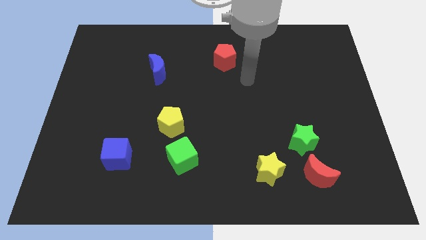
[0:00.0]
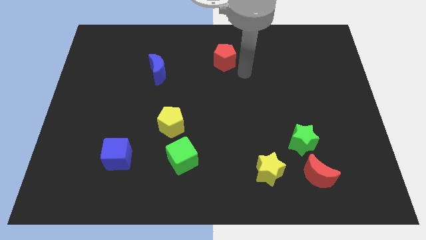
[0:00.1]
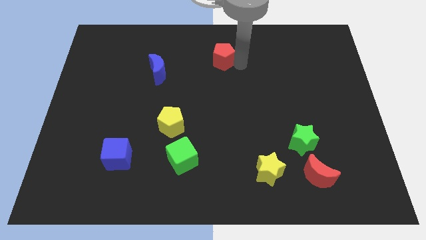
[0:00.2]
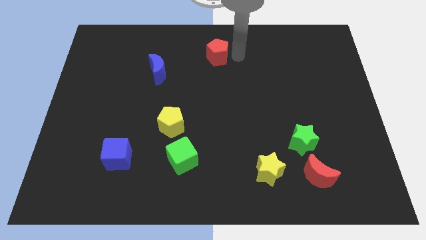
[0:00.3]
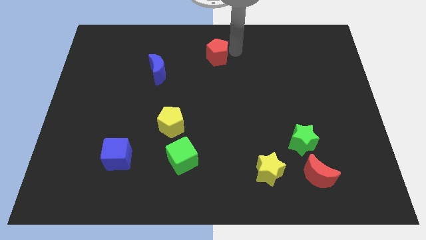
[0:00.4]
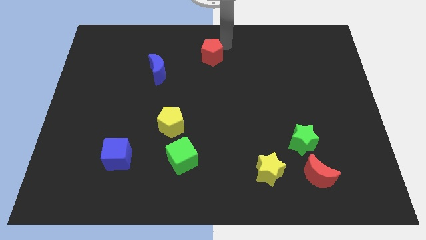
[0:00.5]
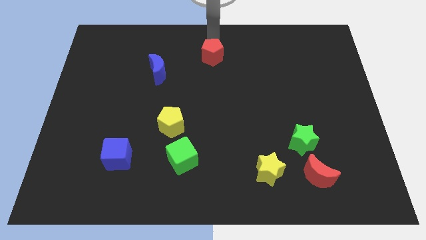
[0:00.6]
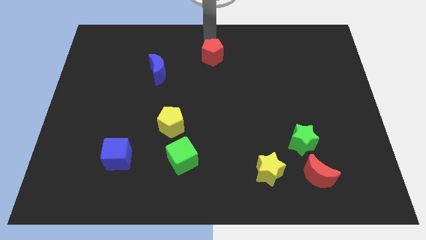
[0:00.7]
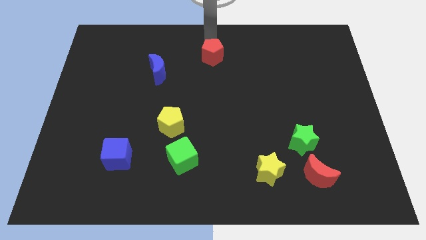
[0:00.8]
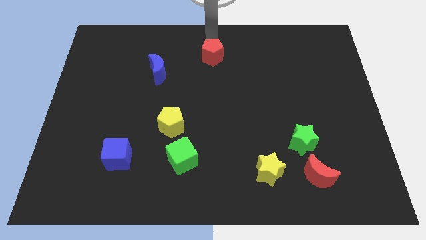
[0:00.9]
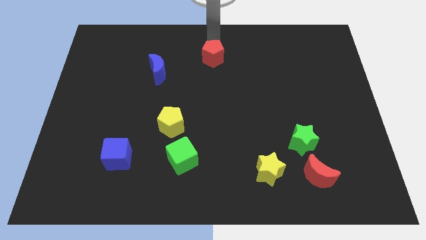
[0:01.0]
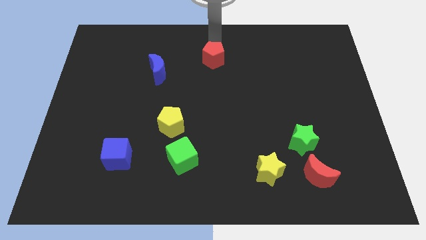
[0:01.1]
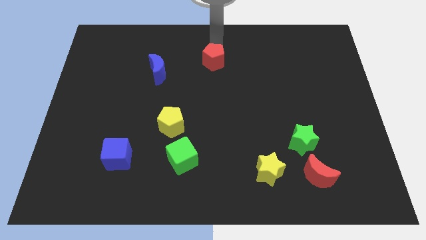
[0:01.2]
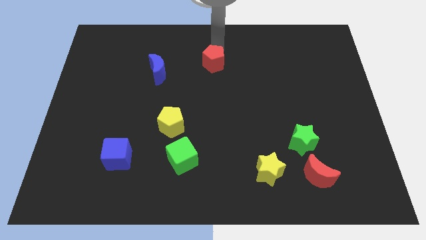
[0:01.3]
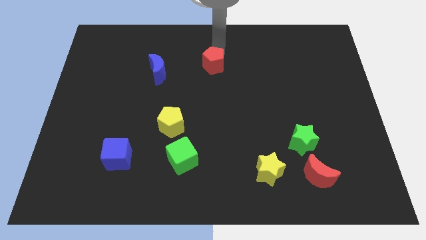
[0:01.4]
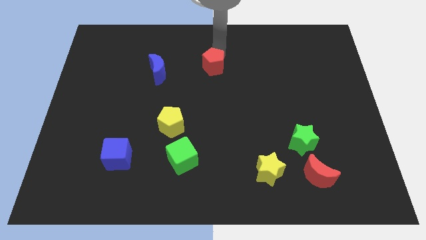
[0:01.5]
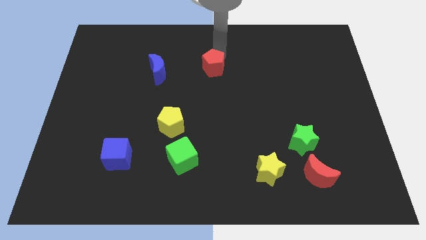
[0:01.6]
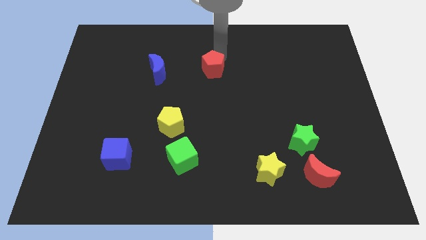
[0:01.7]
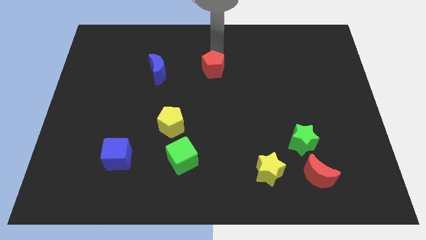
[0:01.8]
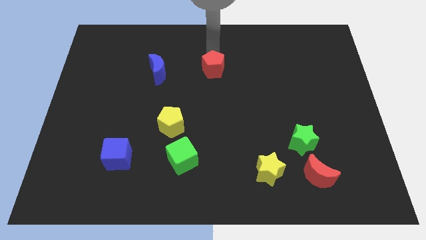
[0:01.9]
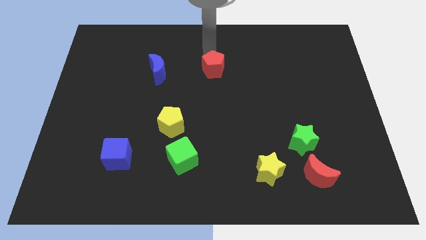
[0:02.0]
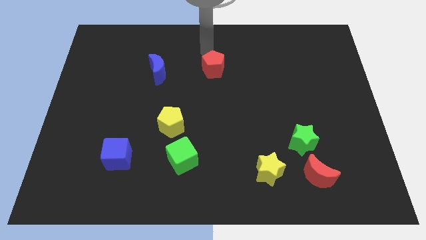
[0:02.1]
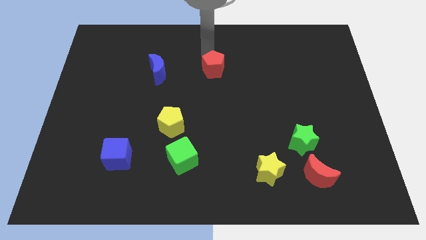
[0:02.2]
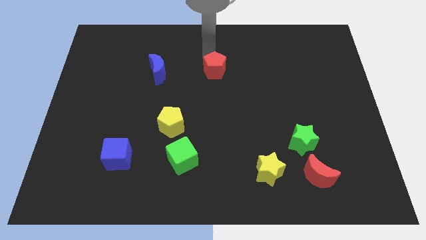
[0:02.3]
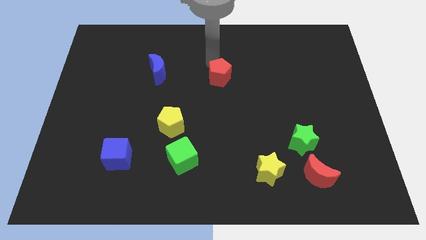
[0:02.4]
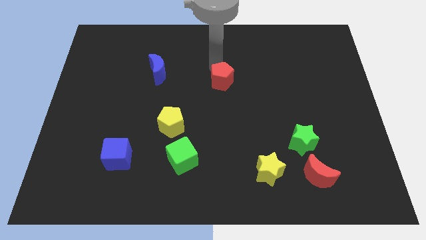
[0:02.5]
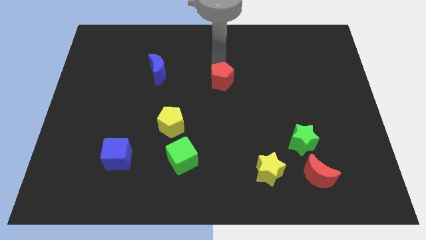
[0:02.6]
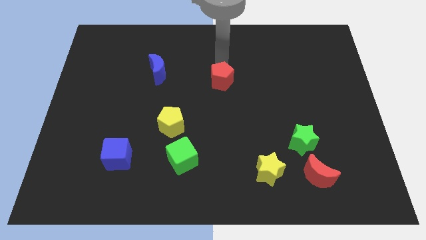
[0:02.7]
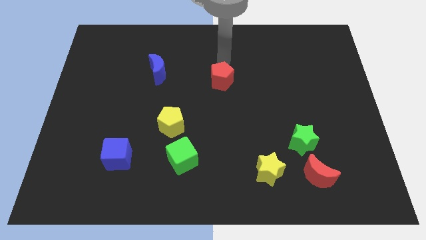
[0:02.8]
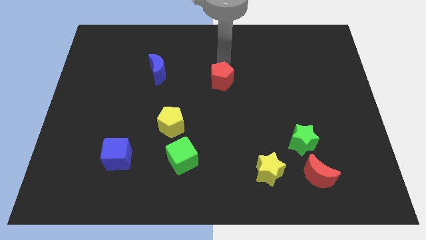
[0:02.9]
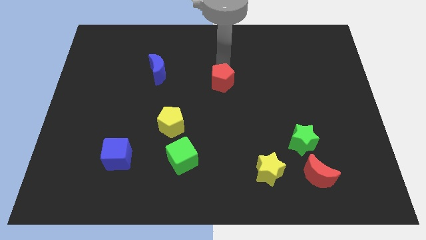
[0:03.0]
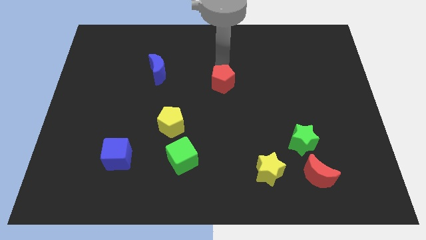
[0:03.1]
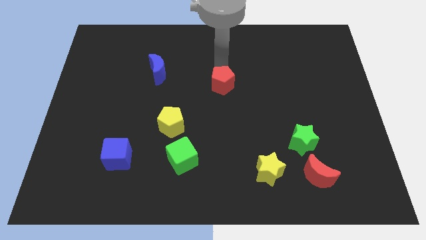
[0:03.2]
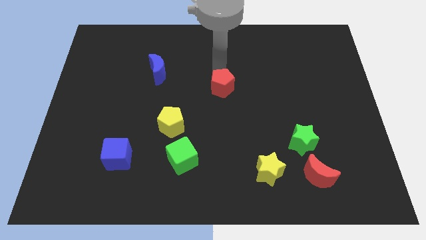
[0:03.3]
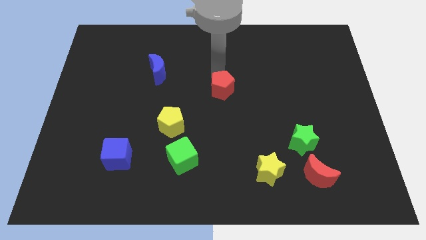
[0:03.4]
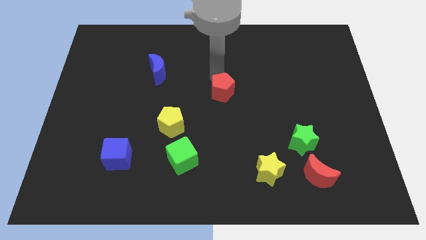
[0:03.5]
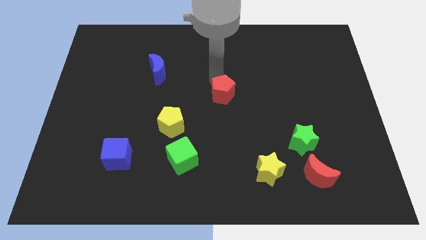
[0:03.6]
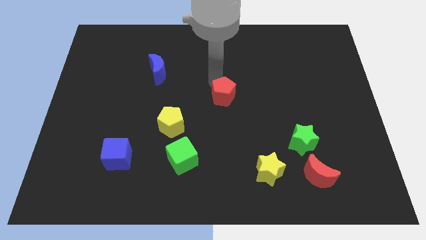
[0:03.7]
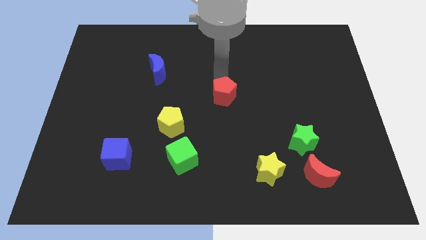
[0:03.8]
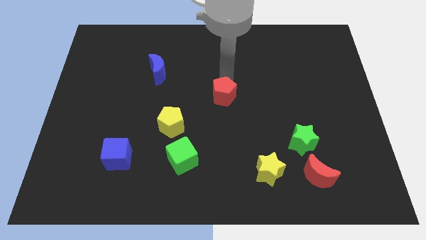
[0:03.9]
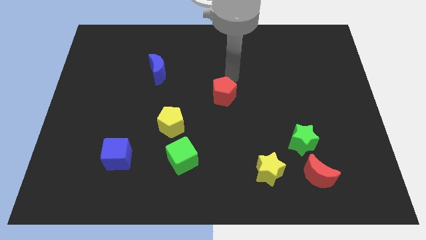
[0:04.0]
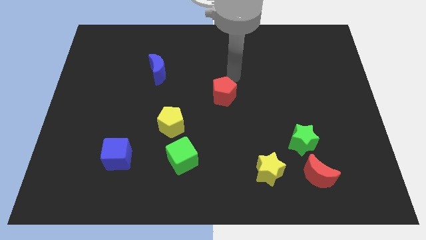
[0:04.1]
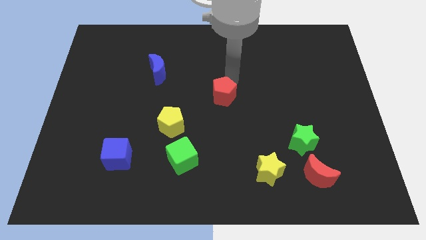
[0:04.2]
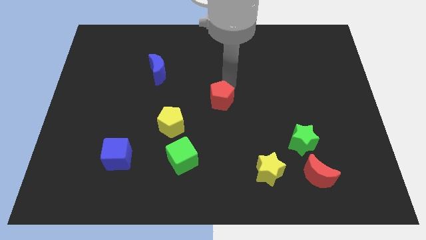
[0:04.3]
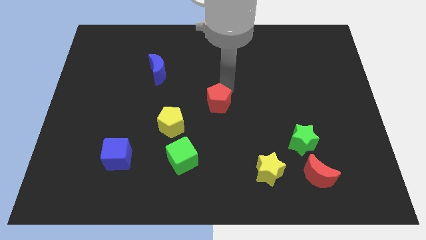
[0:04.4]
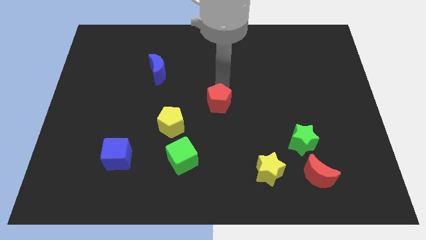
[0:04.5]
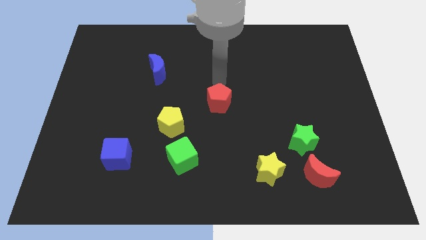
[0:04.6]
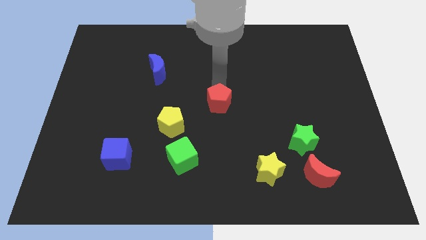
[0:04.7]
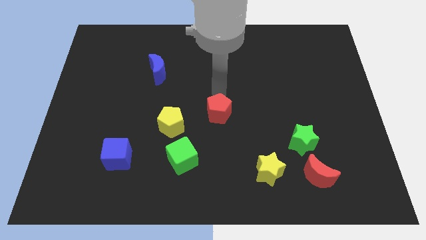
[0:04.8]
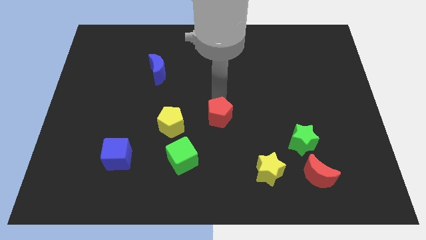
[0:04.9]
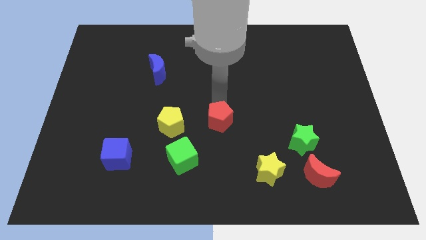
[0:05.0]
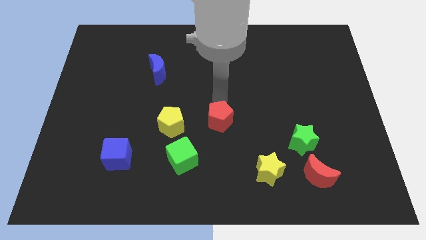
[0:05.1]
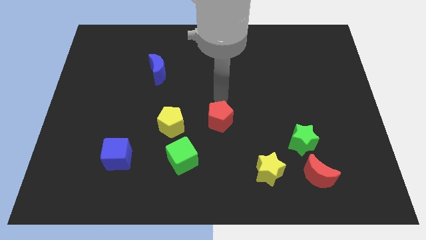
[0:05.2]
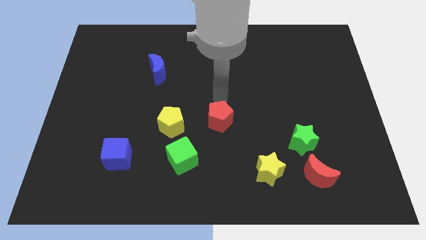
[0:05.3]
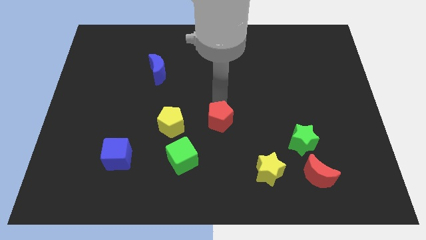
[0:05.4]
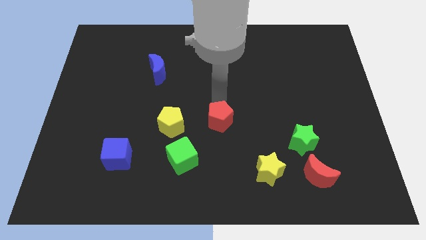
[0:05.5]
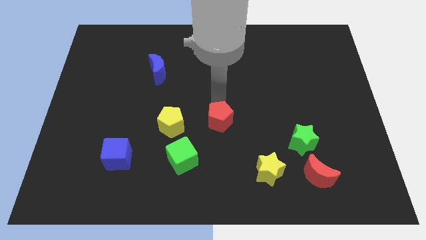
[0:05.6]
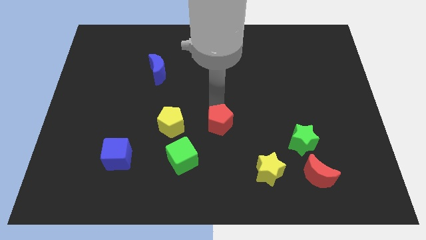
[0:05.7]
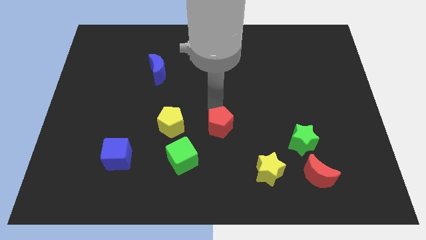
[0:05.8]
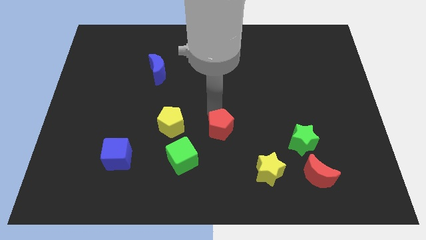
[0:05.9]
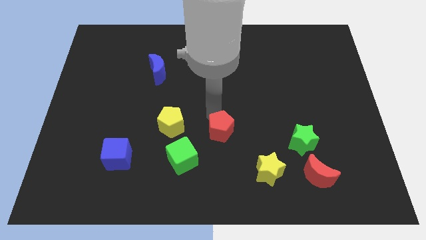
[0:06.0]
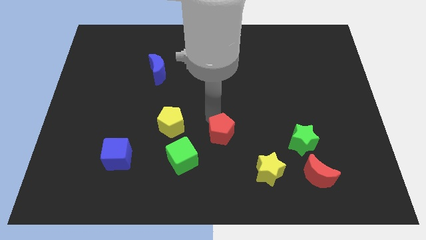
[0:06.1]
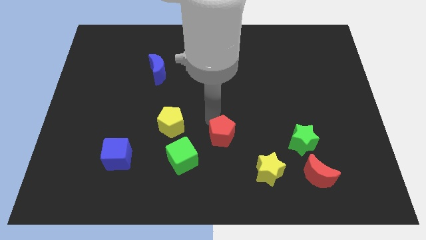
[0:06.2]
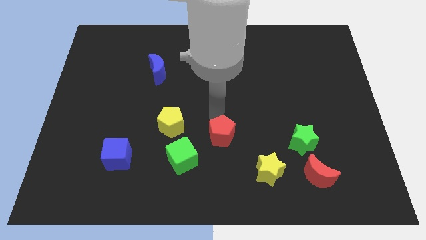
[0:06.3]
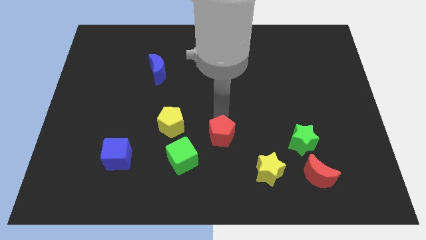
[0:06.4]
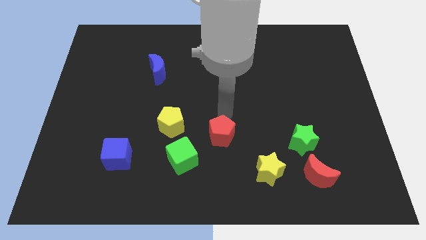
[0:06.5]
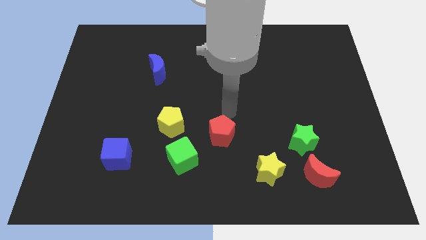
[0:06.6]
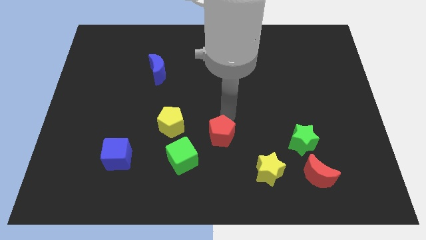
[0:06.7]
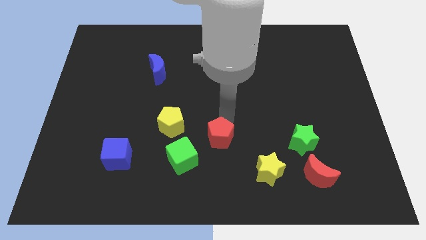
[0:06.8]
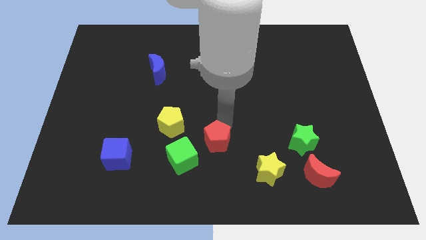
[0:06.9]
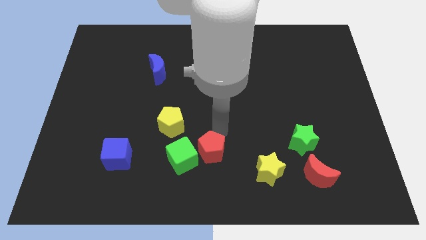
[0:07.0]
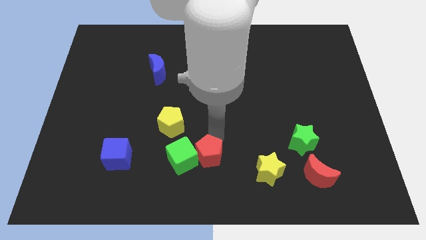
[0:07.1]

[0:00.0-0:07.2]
slide the red pentagon to the bottom side
